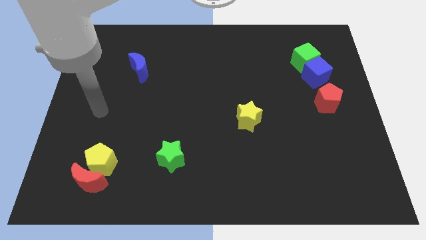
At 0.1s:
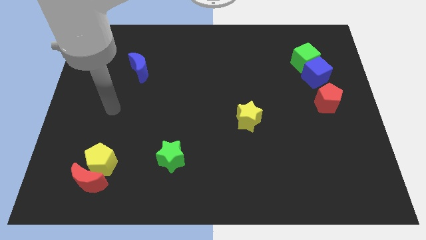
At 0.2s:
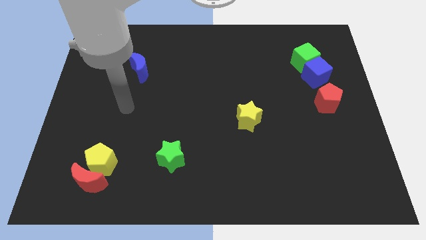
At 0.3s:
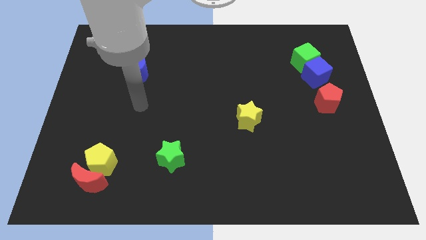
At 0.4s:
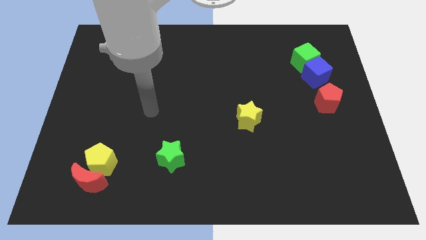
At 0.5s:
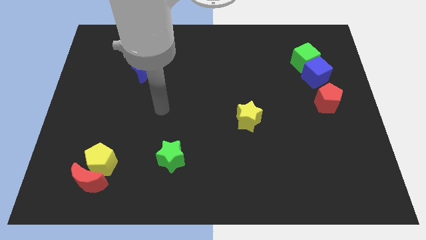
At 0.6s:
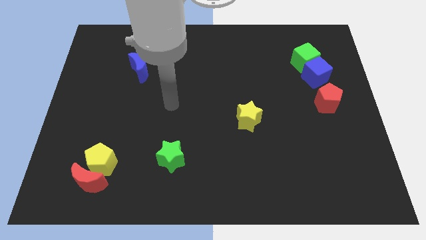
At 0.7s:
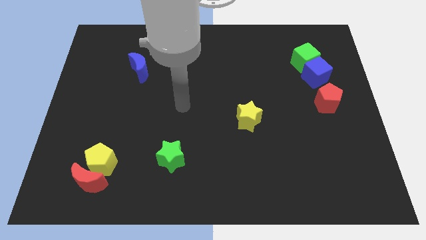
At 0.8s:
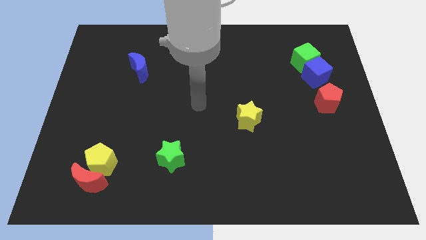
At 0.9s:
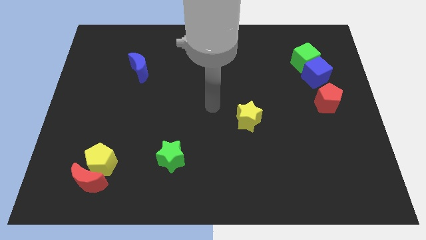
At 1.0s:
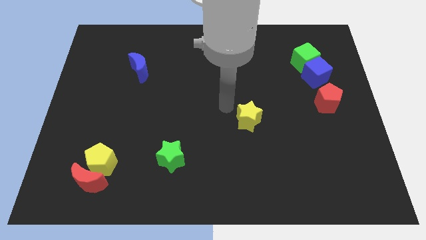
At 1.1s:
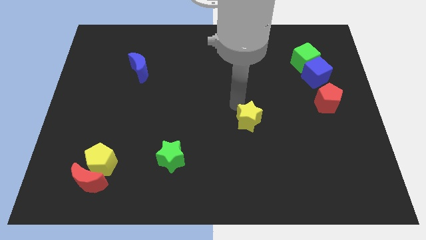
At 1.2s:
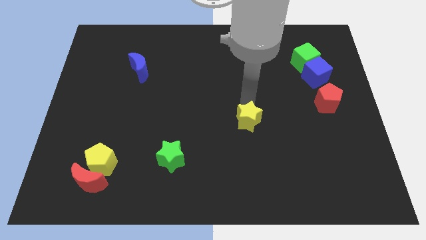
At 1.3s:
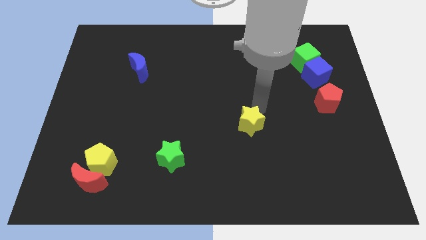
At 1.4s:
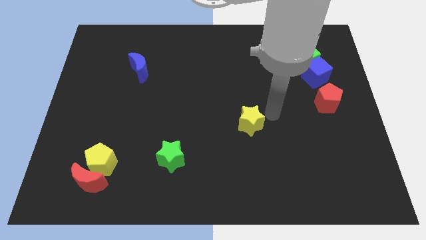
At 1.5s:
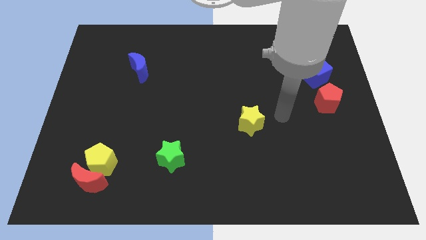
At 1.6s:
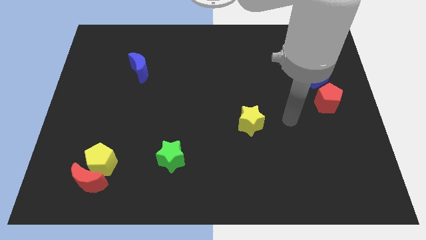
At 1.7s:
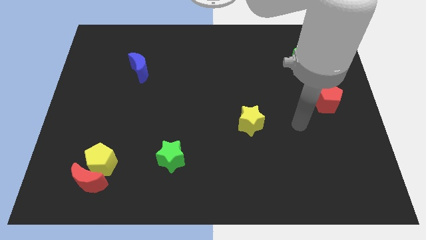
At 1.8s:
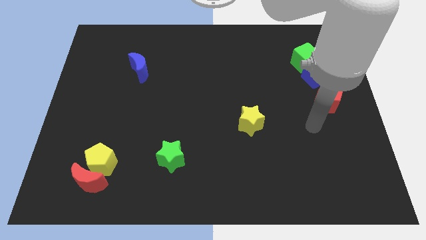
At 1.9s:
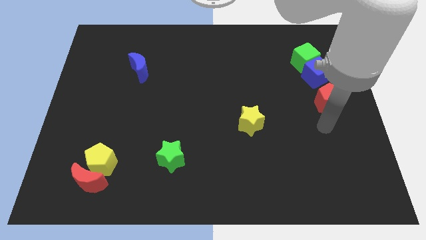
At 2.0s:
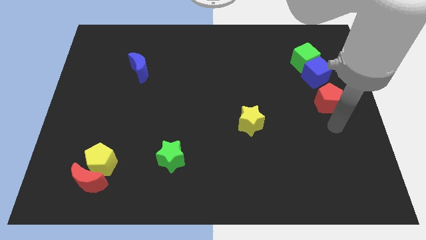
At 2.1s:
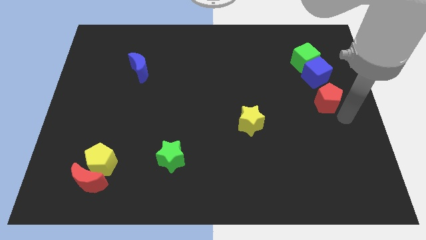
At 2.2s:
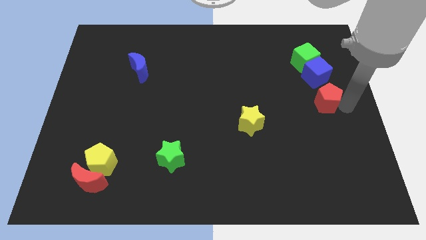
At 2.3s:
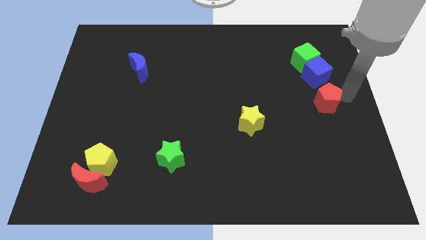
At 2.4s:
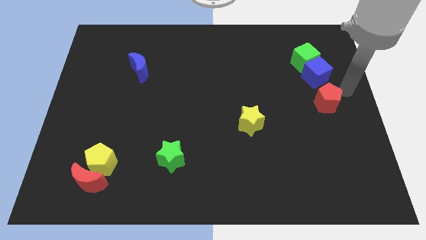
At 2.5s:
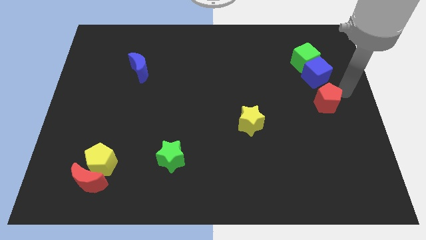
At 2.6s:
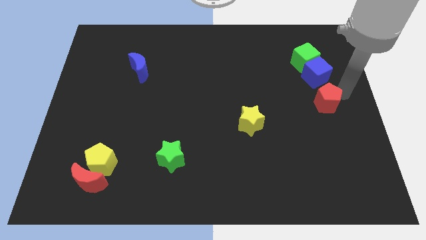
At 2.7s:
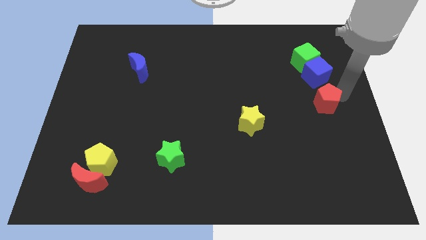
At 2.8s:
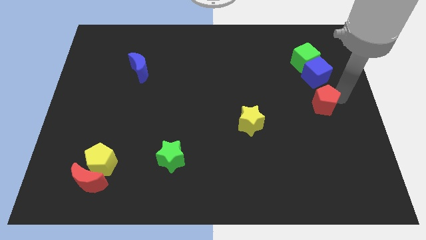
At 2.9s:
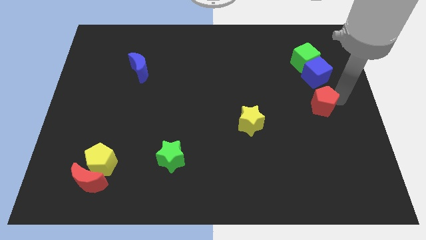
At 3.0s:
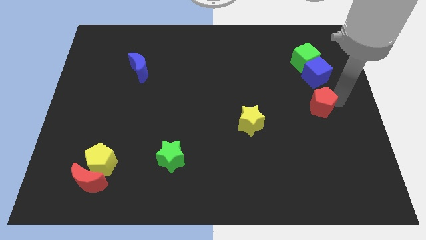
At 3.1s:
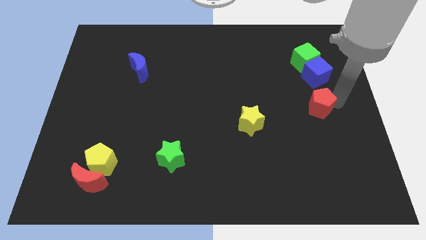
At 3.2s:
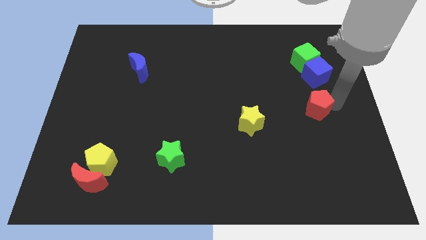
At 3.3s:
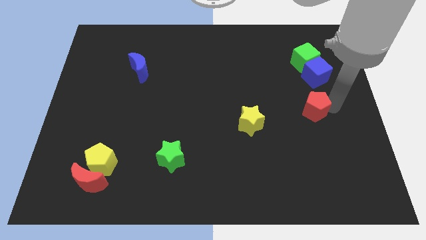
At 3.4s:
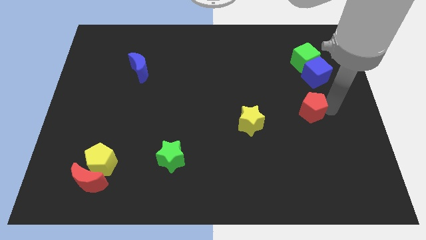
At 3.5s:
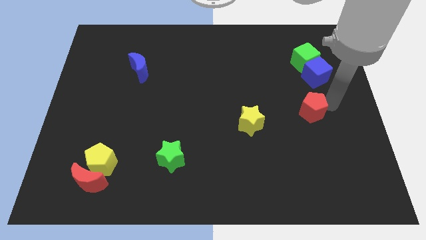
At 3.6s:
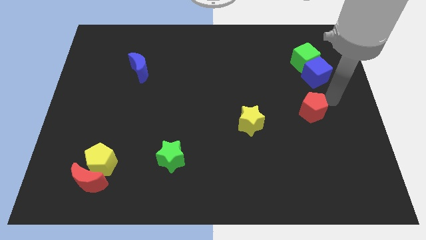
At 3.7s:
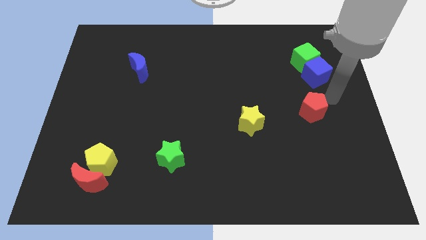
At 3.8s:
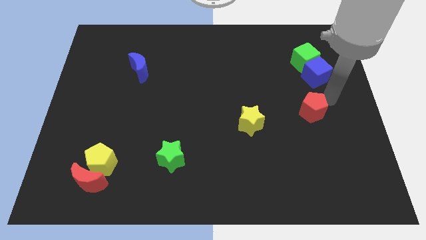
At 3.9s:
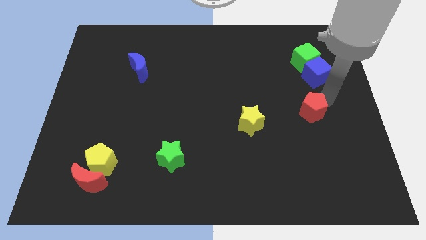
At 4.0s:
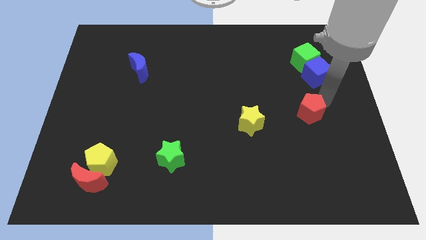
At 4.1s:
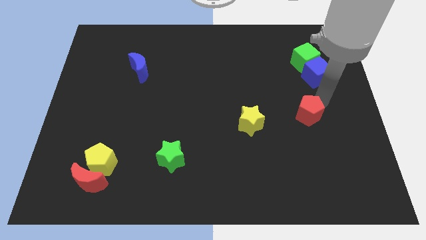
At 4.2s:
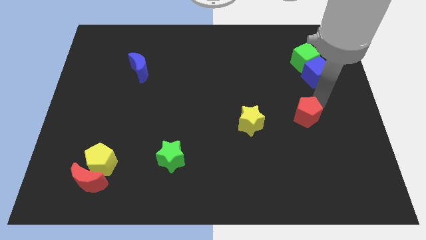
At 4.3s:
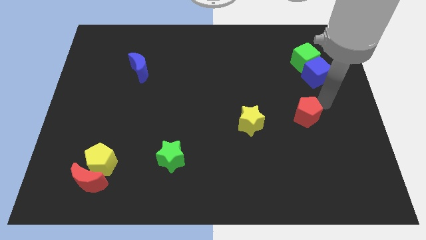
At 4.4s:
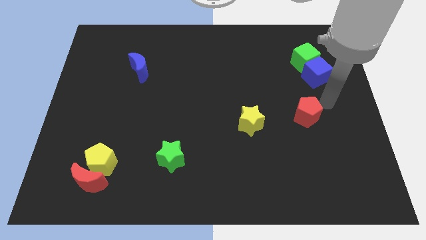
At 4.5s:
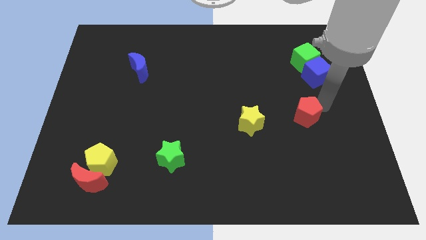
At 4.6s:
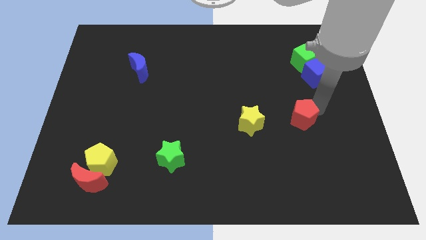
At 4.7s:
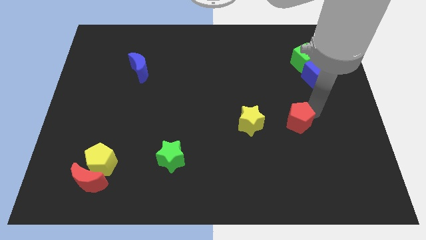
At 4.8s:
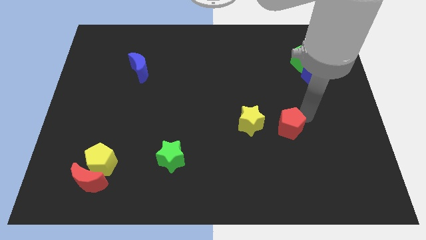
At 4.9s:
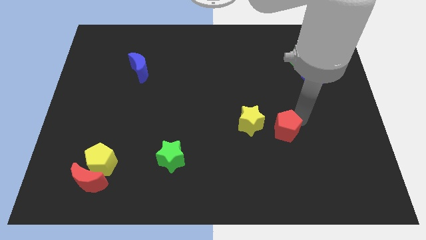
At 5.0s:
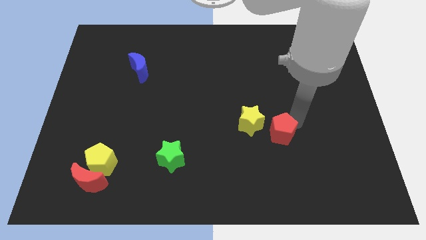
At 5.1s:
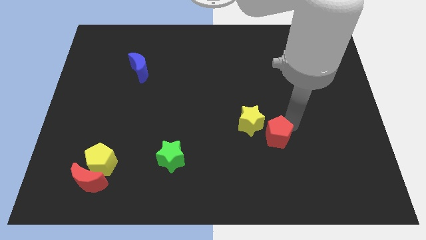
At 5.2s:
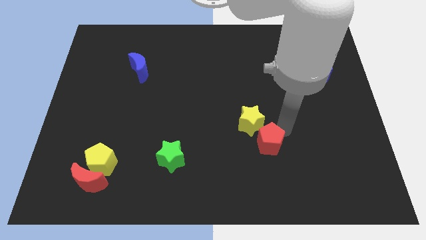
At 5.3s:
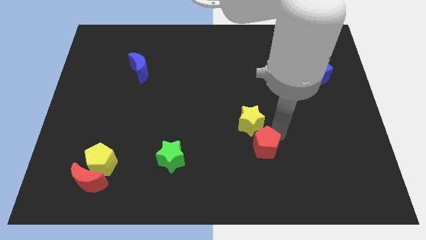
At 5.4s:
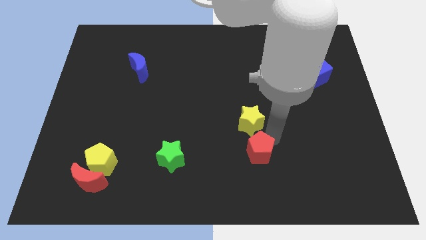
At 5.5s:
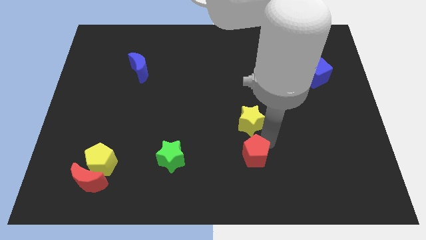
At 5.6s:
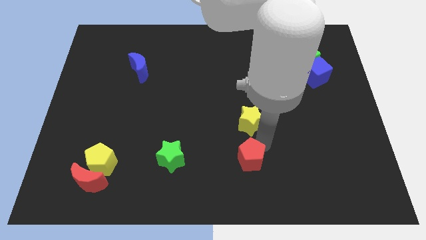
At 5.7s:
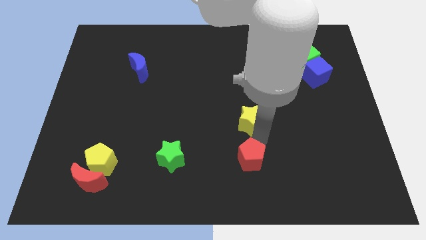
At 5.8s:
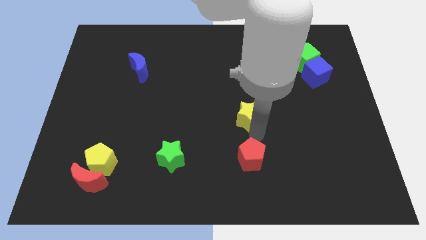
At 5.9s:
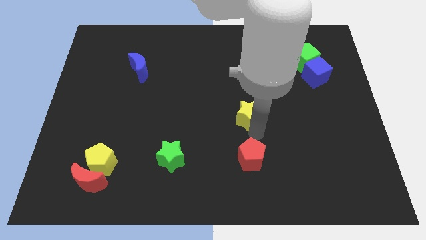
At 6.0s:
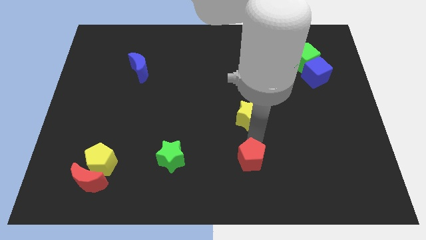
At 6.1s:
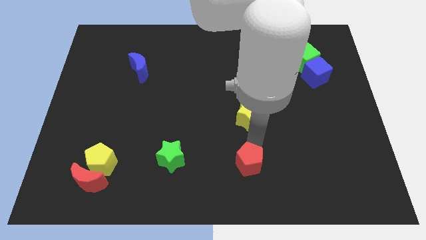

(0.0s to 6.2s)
push the red pentagon to the bottom side
